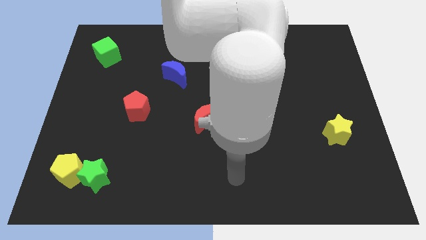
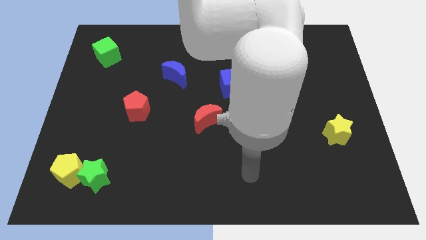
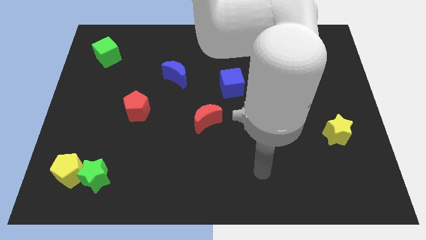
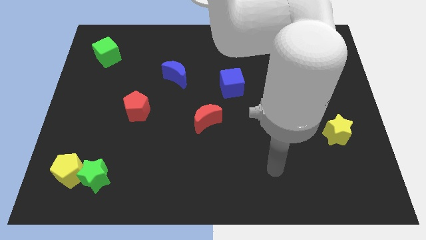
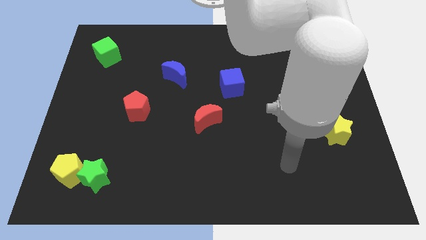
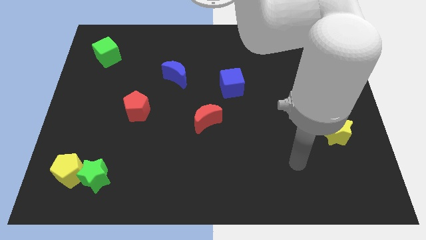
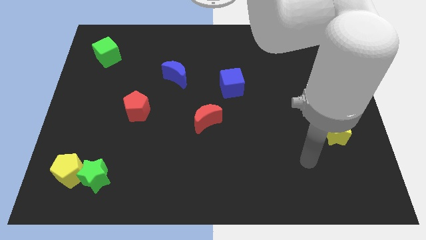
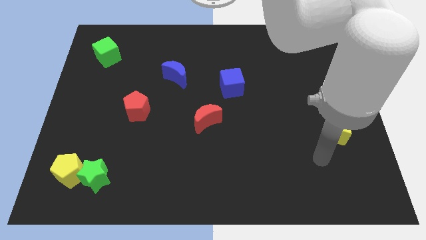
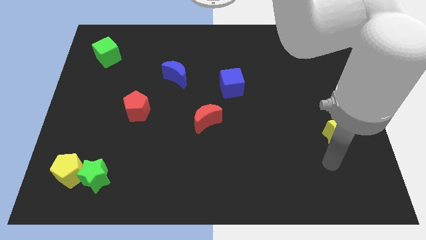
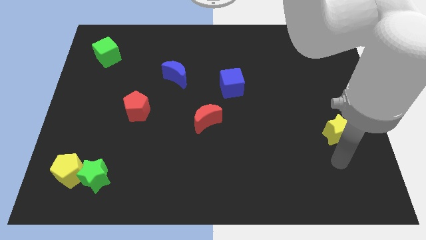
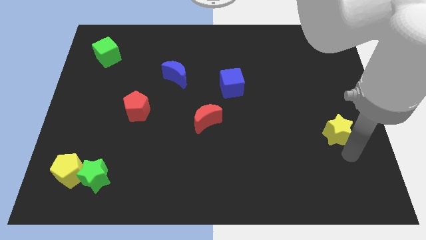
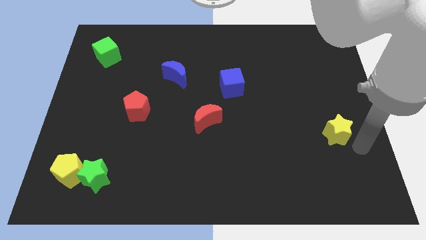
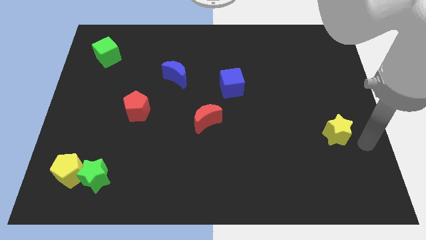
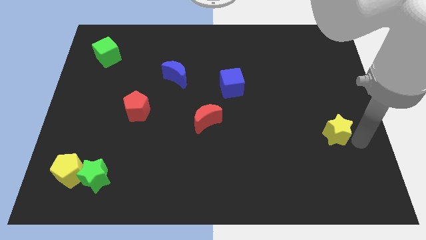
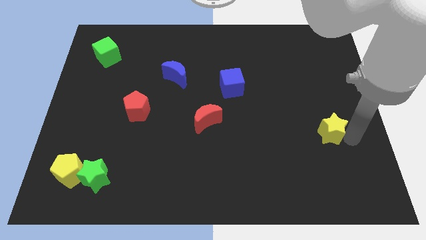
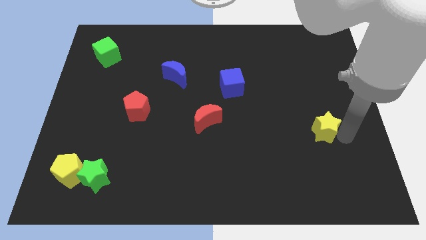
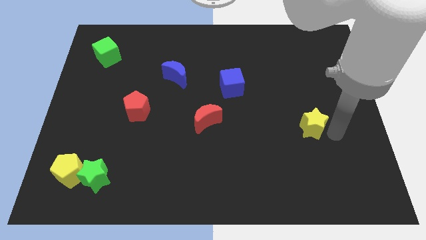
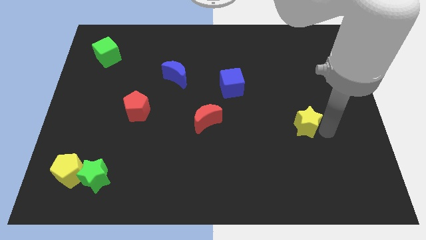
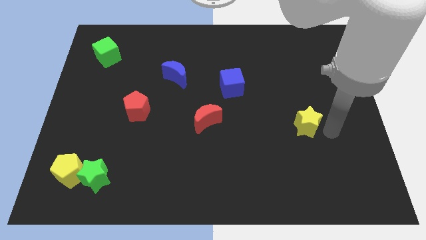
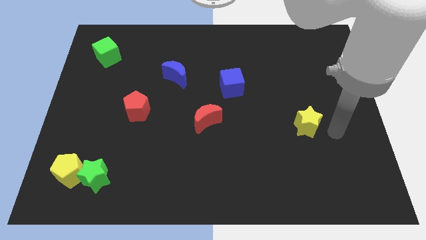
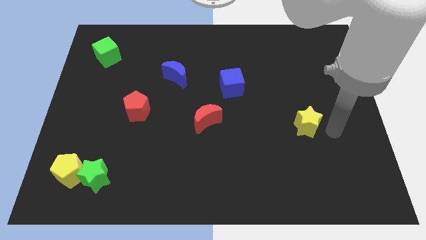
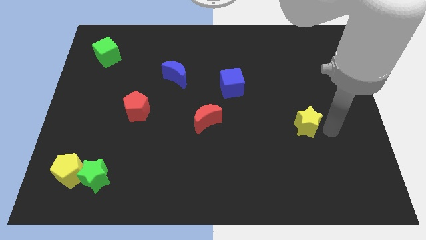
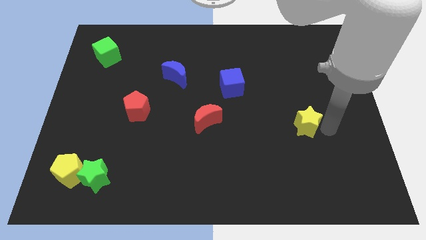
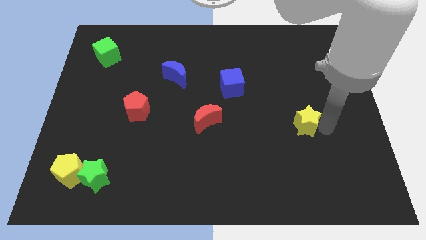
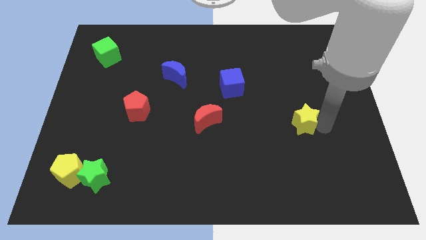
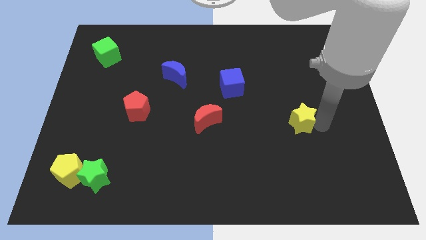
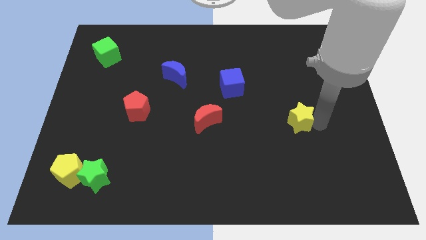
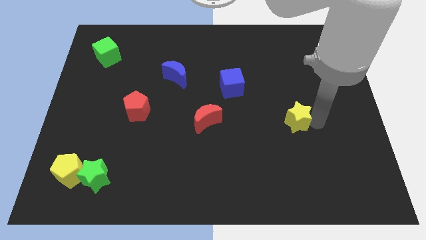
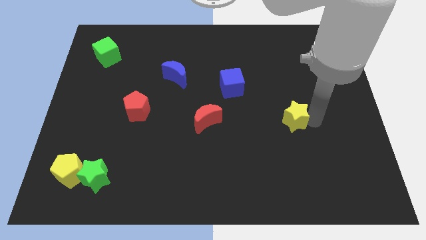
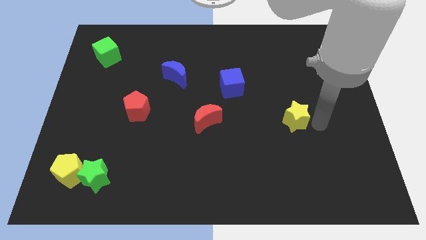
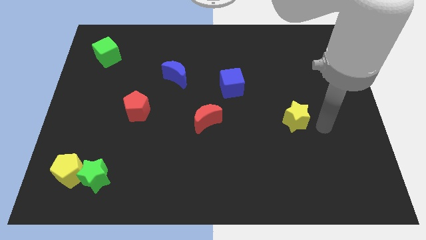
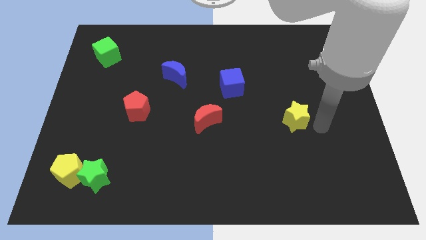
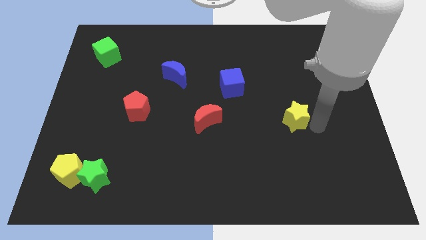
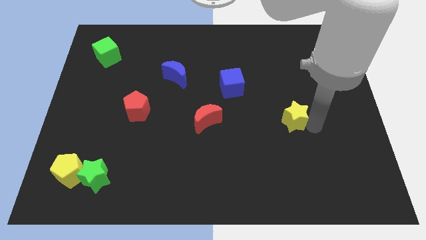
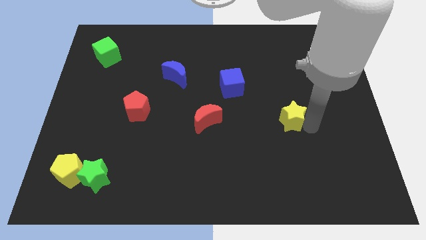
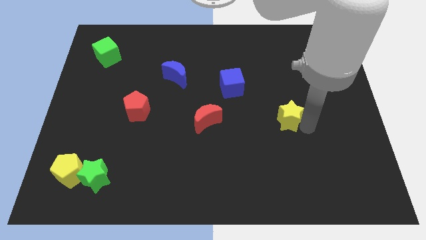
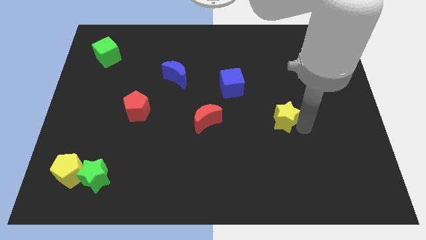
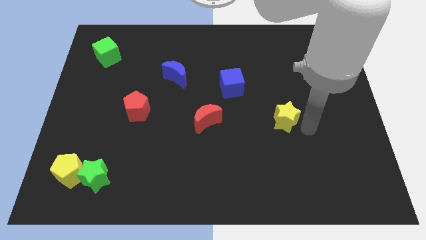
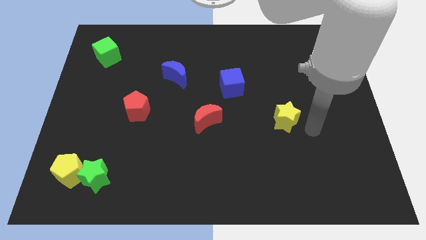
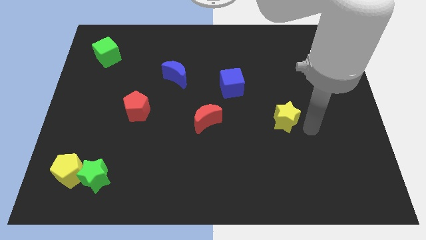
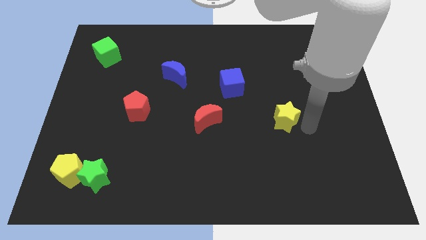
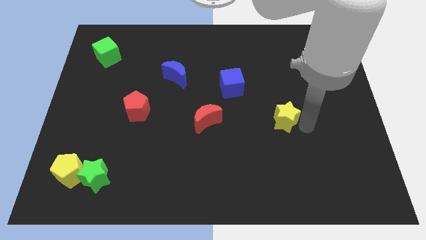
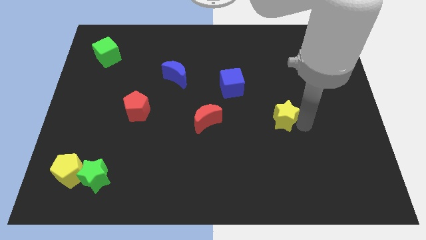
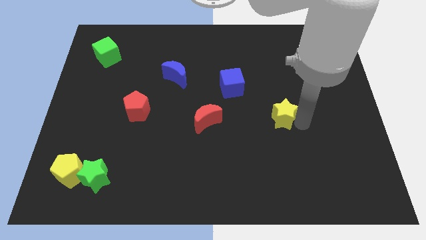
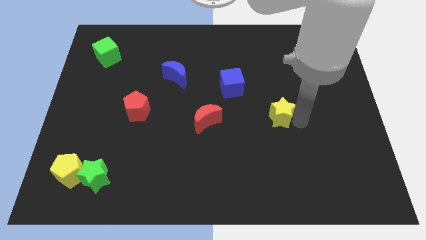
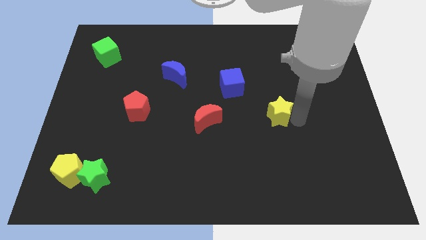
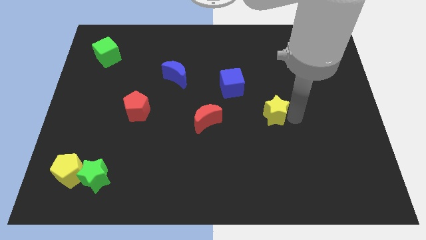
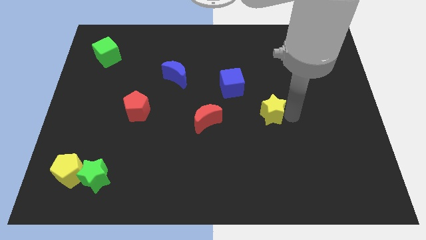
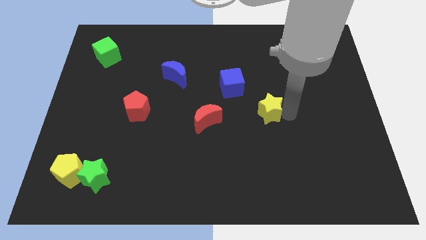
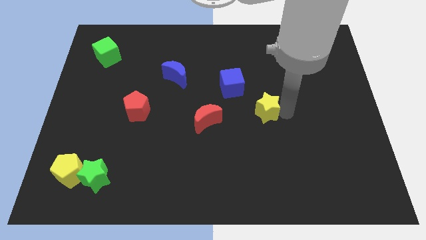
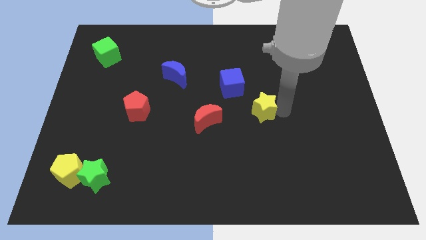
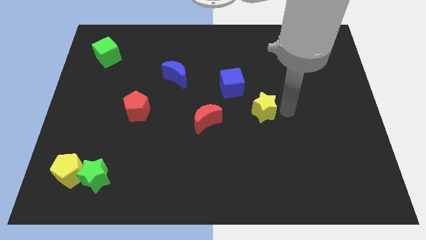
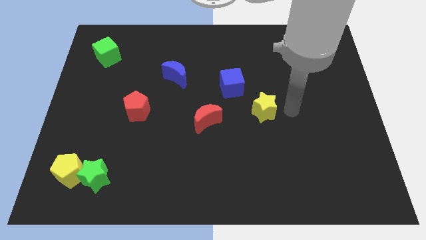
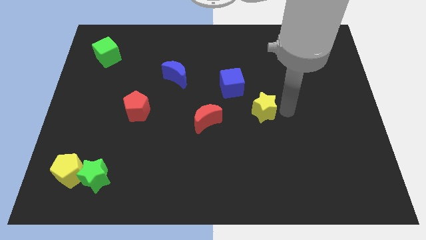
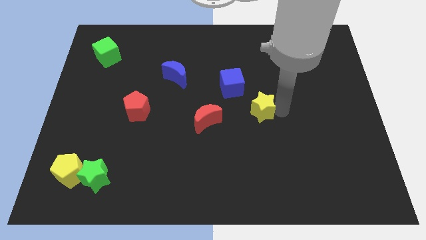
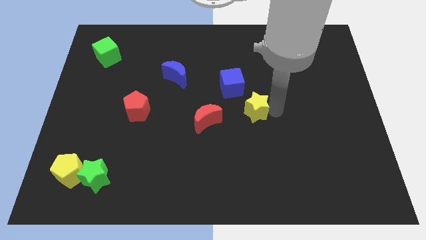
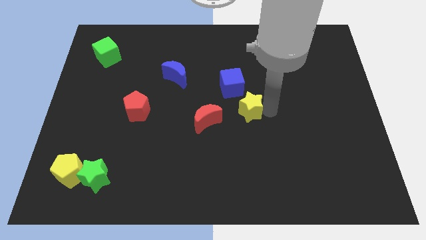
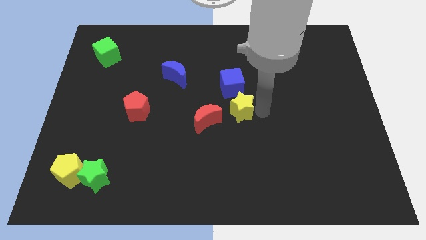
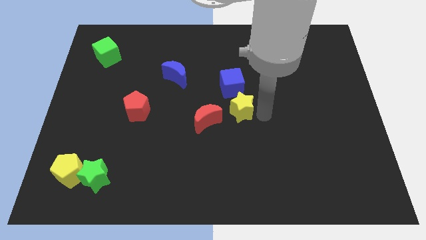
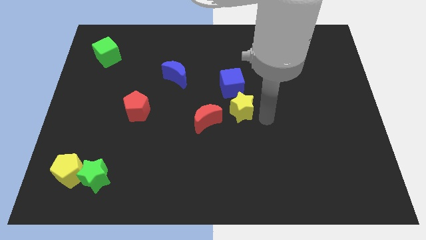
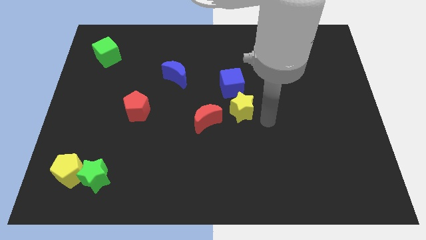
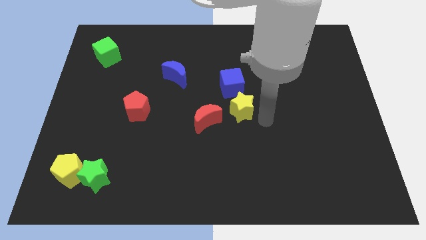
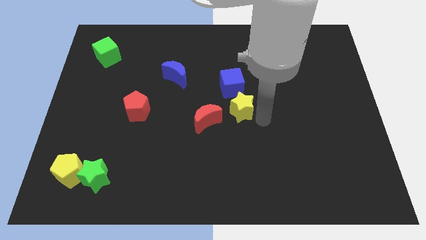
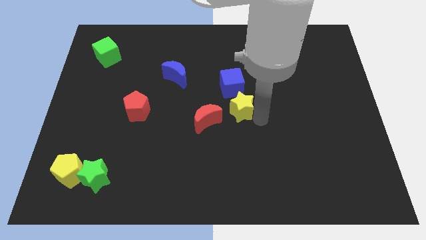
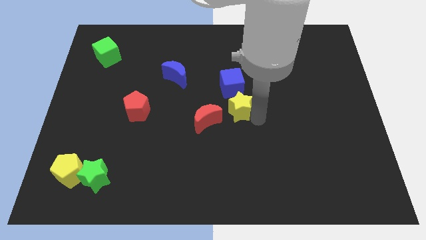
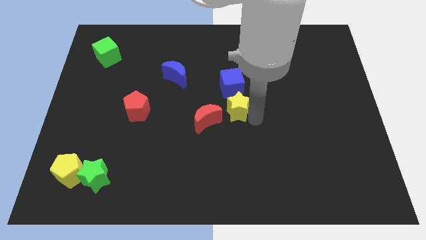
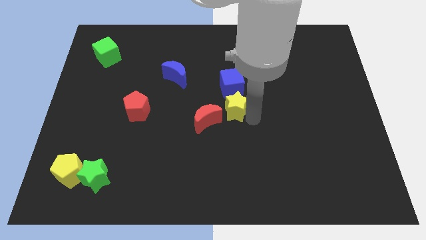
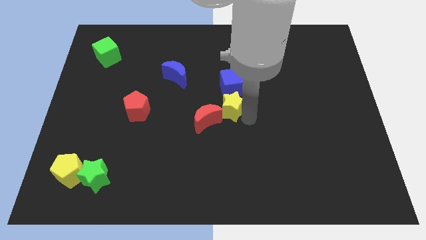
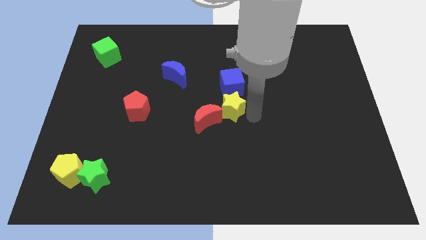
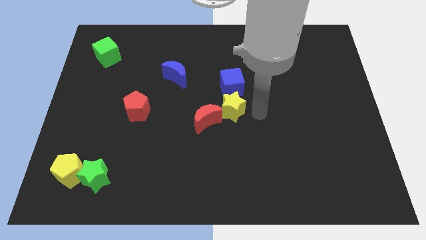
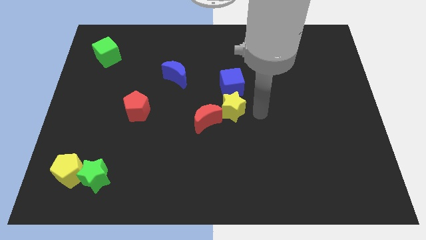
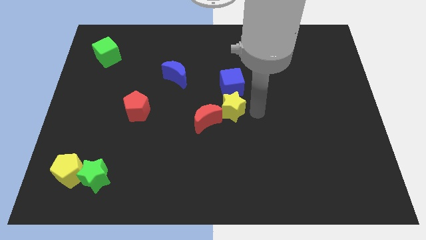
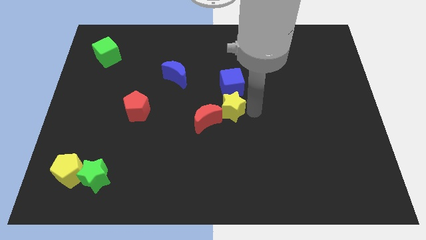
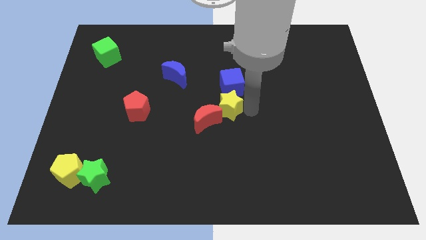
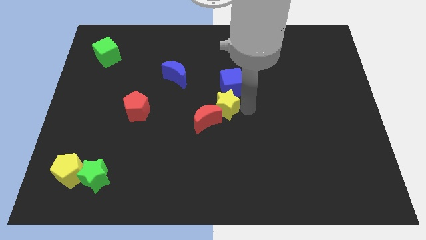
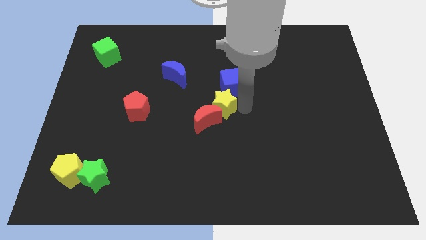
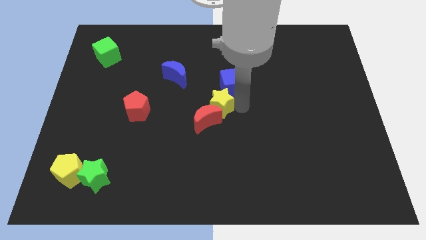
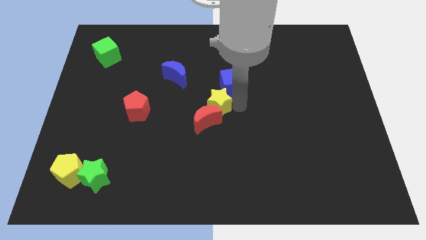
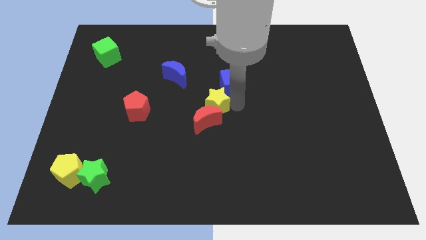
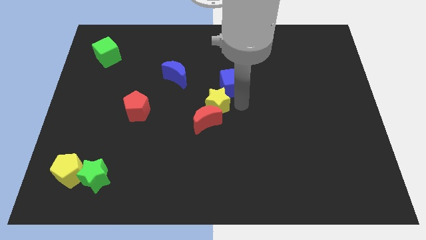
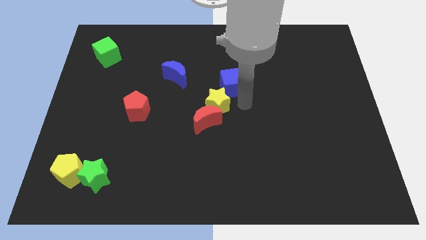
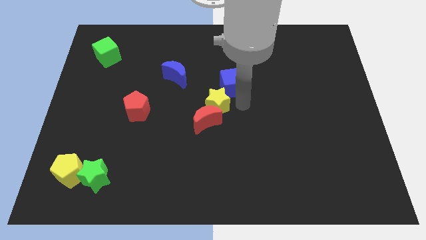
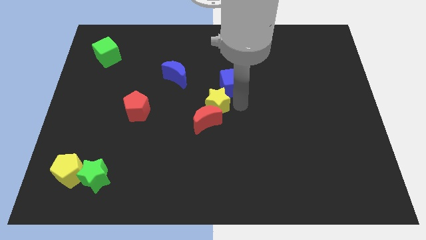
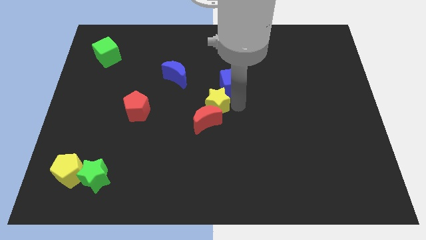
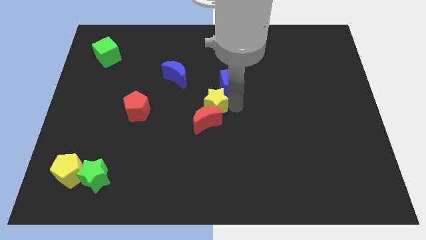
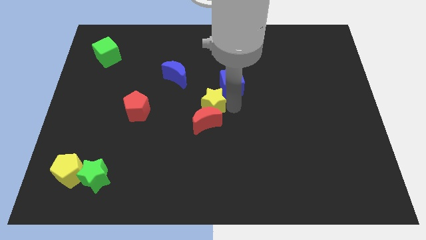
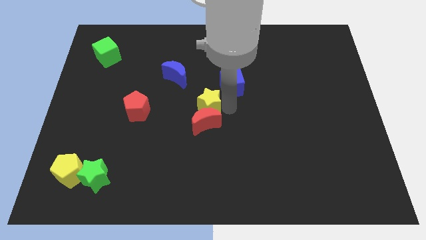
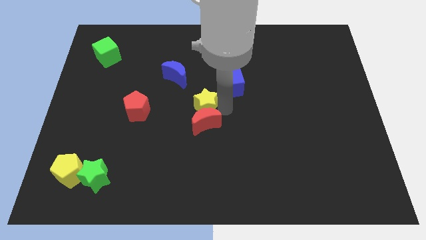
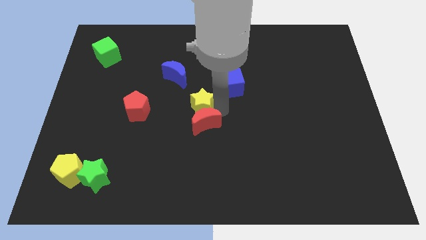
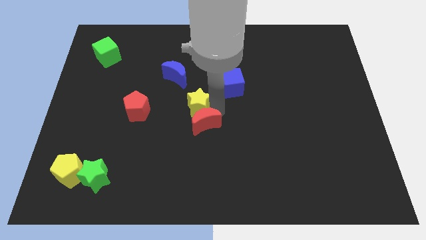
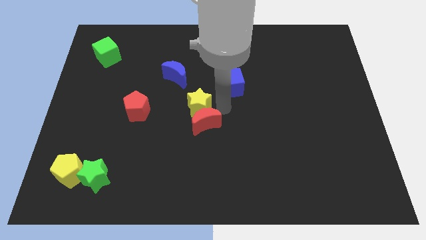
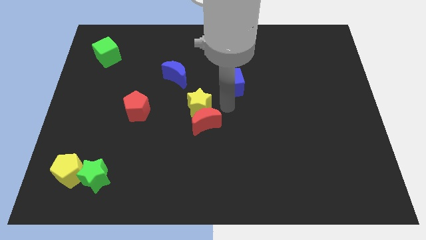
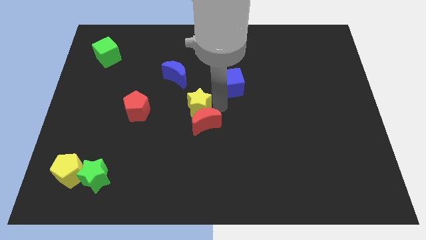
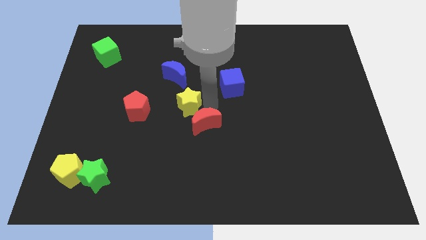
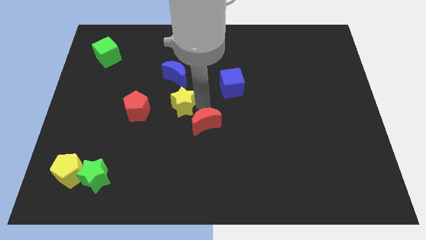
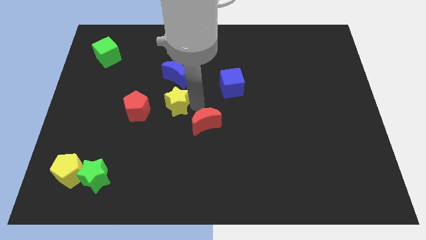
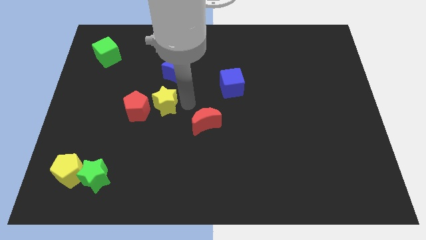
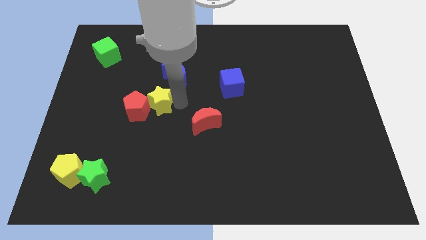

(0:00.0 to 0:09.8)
put the yellow star towards the red pentagon
